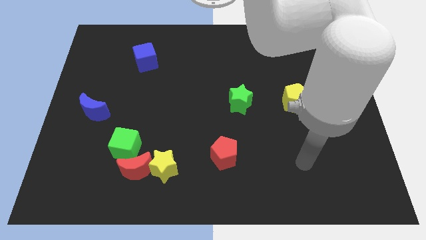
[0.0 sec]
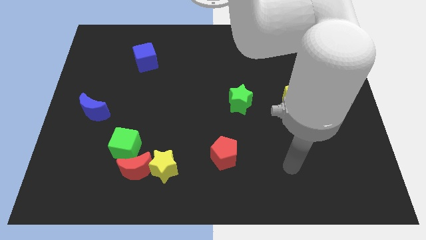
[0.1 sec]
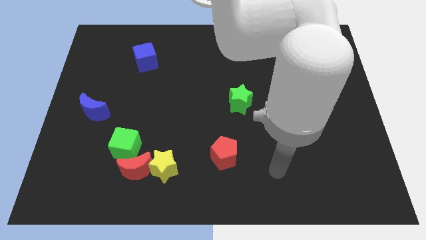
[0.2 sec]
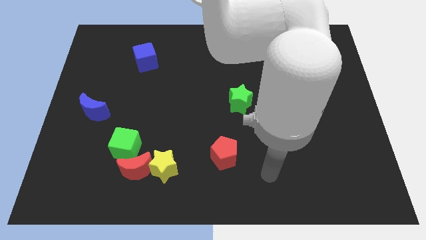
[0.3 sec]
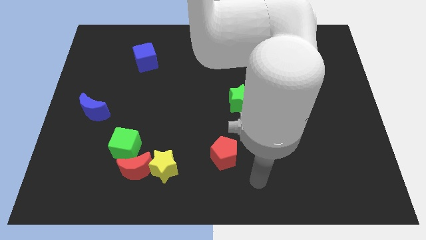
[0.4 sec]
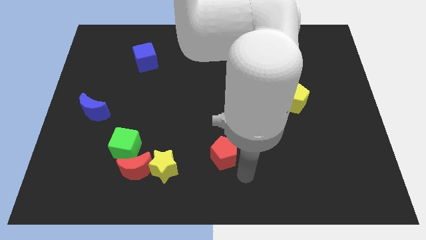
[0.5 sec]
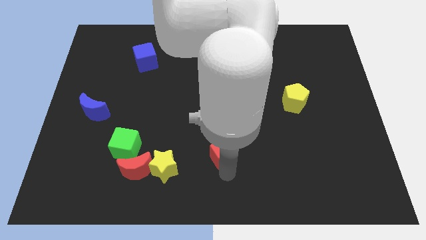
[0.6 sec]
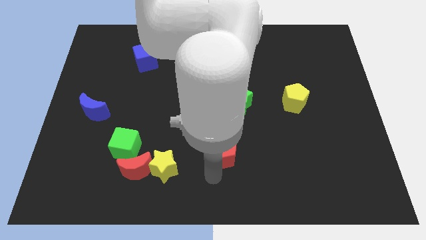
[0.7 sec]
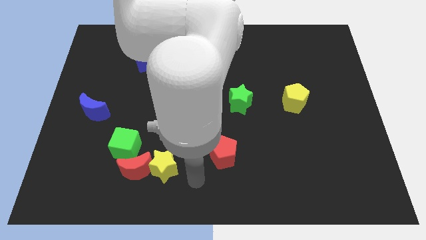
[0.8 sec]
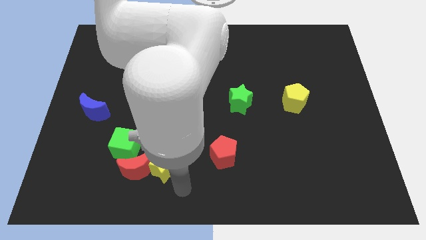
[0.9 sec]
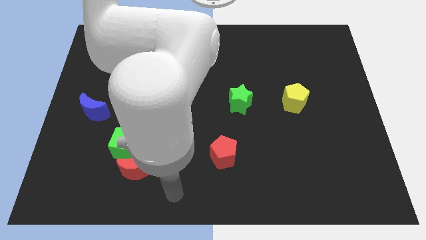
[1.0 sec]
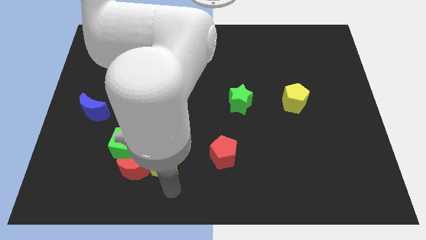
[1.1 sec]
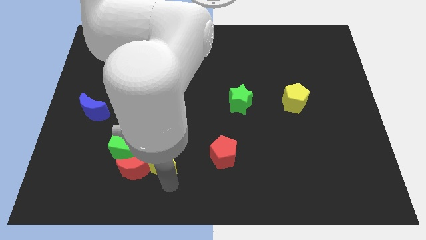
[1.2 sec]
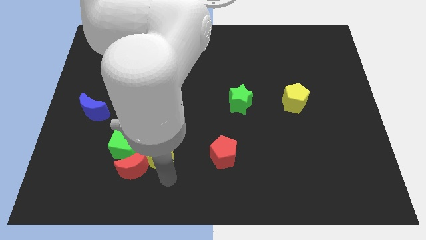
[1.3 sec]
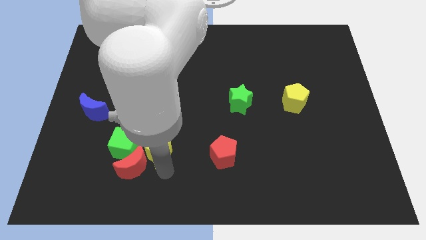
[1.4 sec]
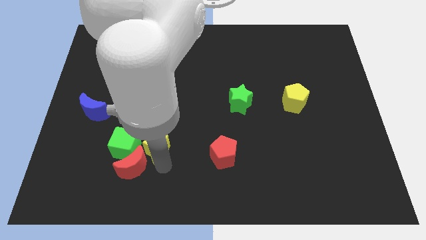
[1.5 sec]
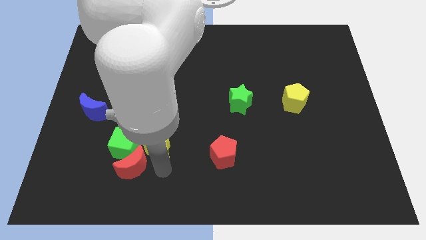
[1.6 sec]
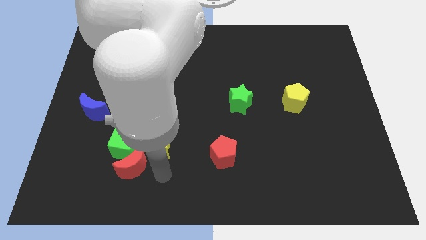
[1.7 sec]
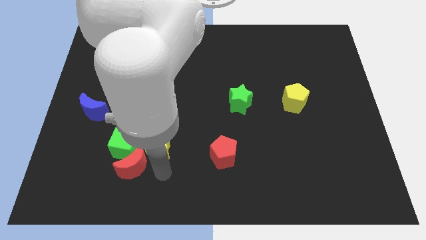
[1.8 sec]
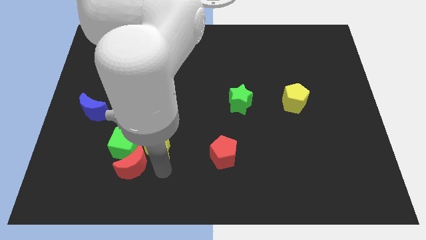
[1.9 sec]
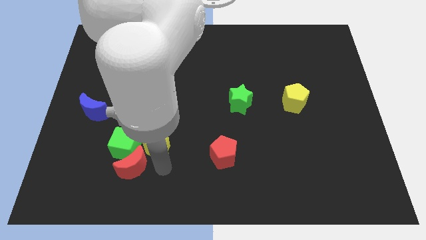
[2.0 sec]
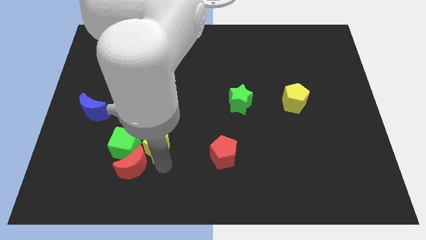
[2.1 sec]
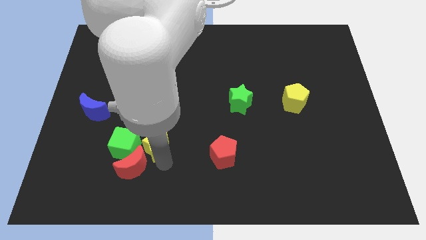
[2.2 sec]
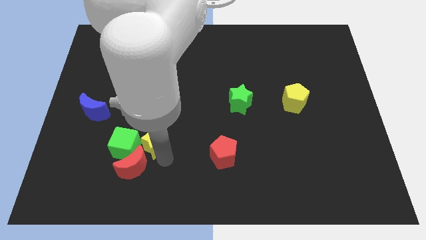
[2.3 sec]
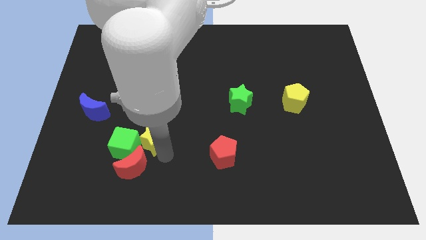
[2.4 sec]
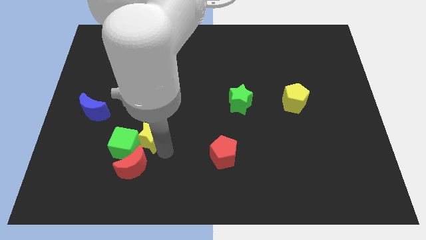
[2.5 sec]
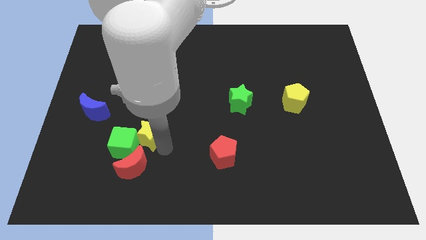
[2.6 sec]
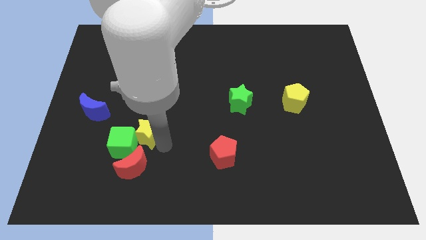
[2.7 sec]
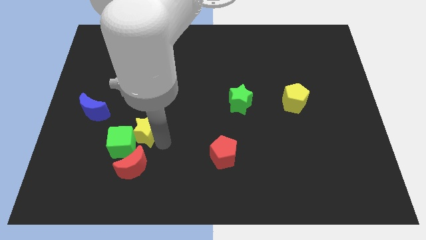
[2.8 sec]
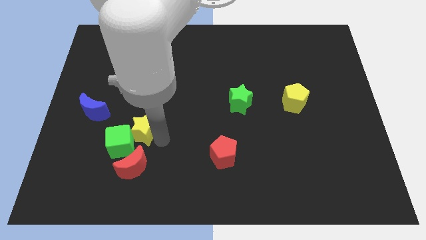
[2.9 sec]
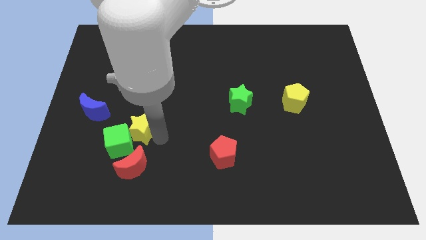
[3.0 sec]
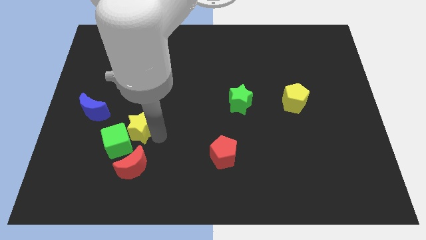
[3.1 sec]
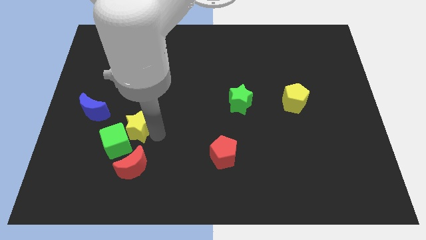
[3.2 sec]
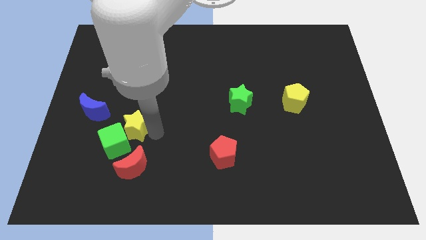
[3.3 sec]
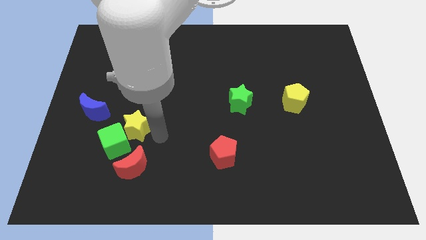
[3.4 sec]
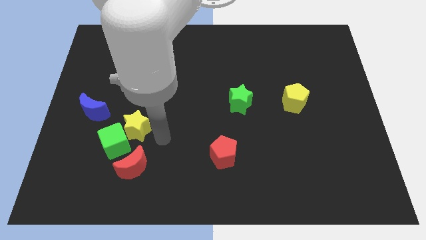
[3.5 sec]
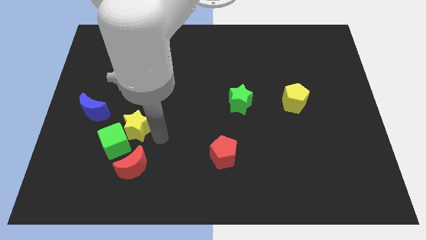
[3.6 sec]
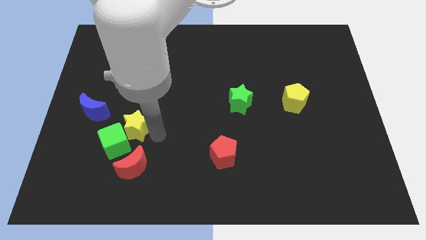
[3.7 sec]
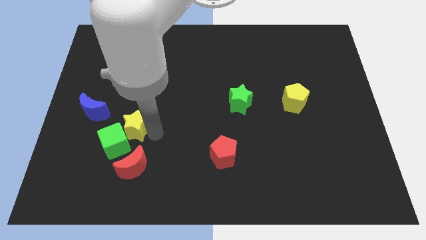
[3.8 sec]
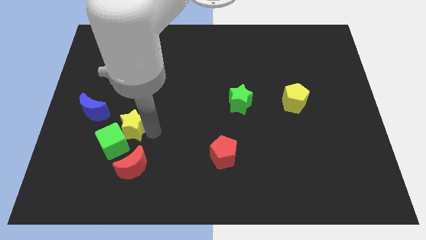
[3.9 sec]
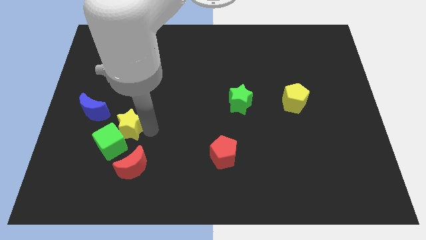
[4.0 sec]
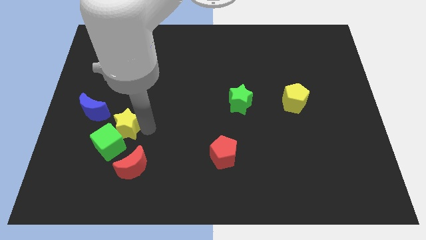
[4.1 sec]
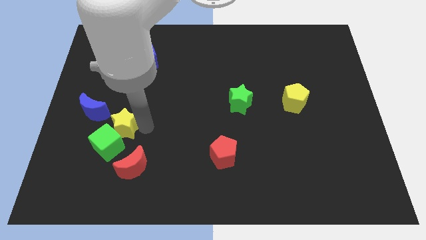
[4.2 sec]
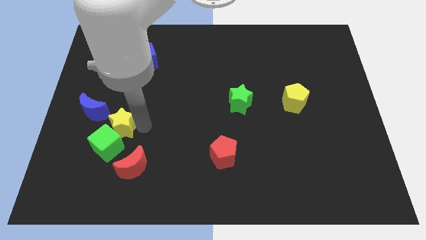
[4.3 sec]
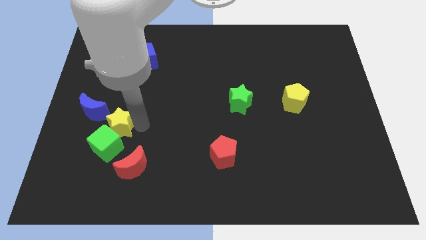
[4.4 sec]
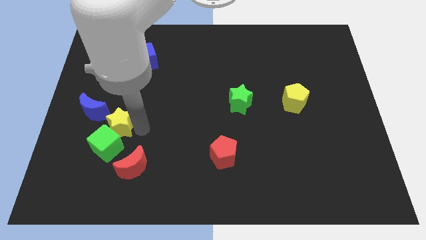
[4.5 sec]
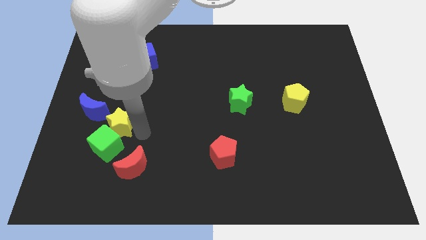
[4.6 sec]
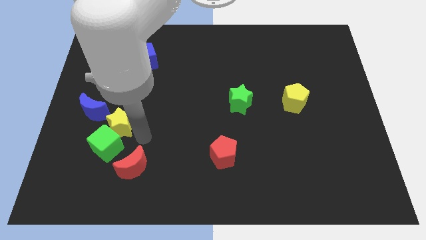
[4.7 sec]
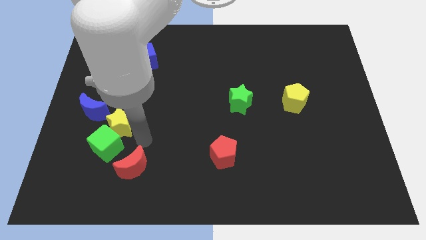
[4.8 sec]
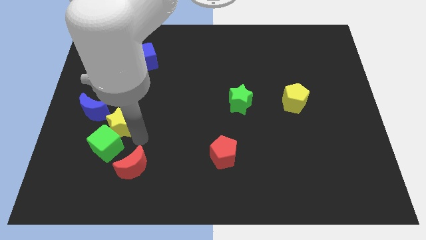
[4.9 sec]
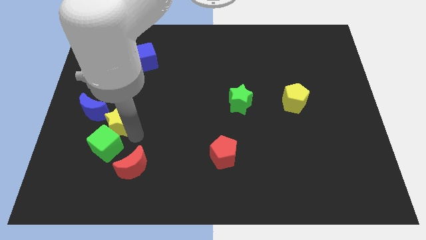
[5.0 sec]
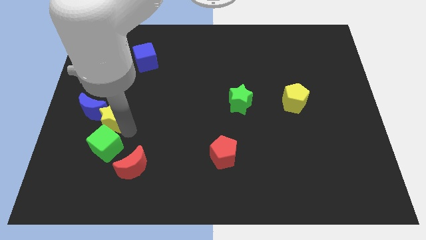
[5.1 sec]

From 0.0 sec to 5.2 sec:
push the yellow star towards the blue moon

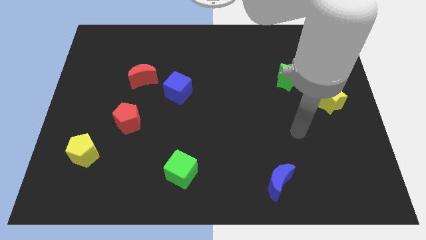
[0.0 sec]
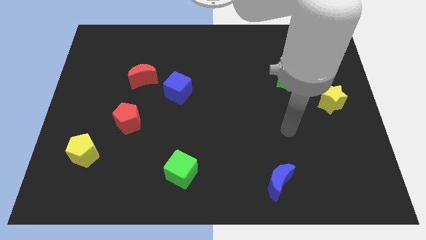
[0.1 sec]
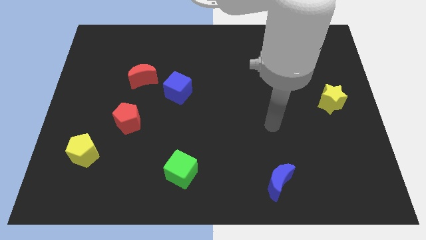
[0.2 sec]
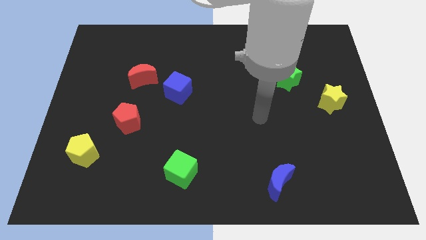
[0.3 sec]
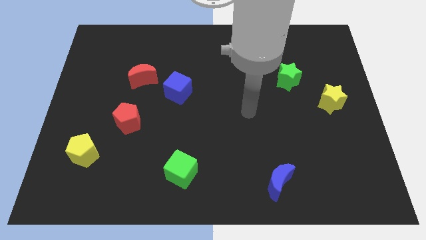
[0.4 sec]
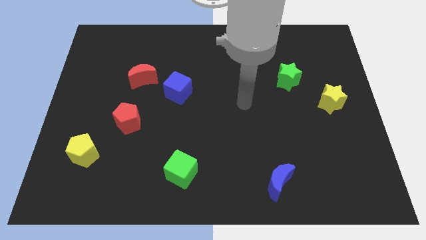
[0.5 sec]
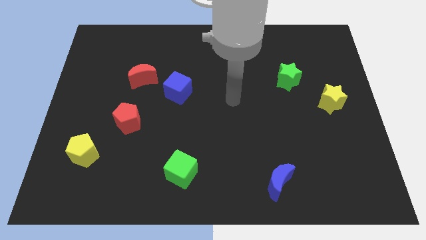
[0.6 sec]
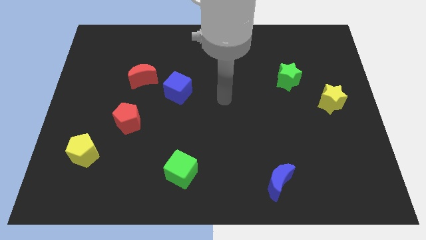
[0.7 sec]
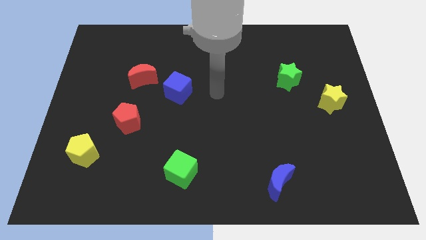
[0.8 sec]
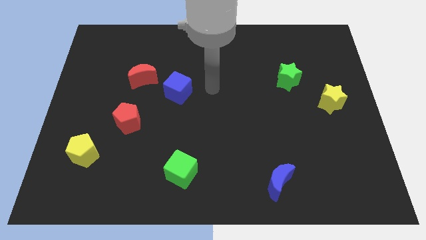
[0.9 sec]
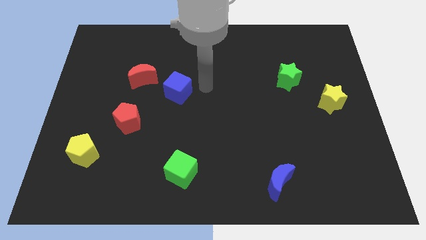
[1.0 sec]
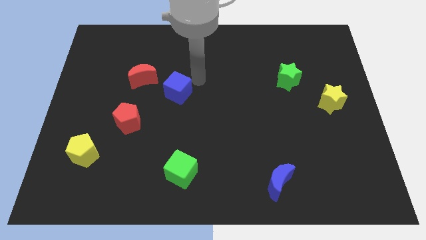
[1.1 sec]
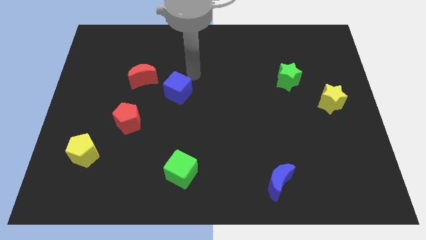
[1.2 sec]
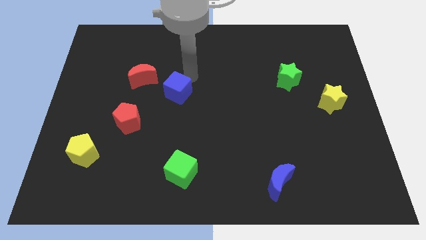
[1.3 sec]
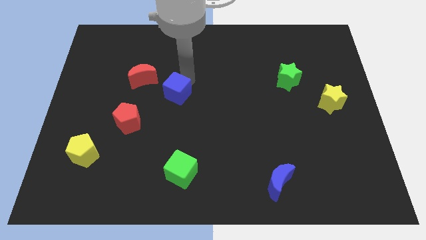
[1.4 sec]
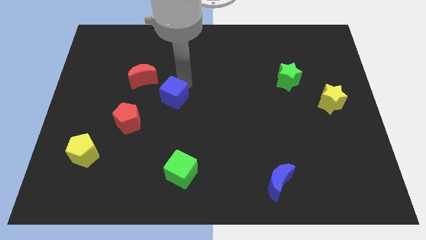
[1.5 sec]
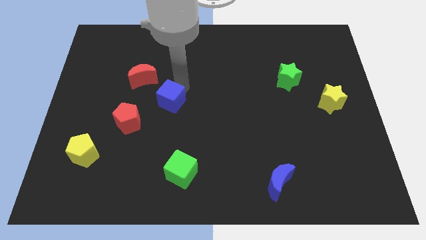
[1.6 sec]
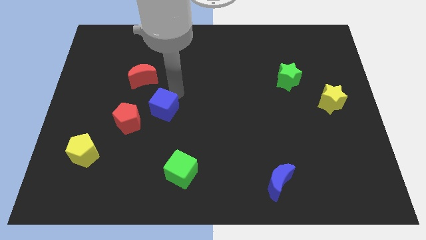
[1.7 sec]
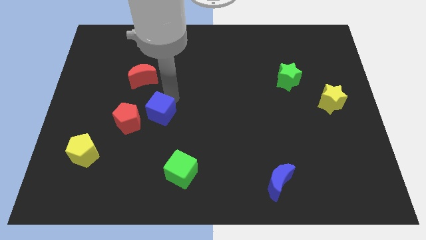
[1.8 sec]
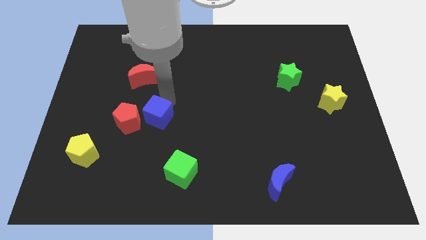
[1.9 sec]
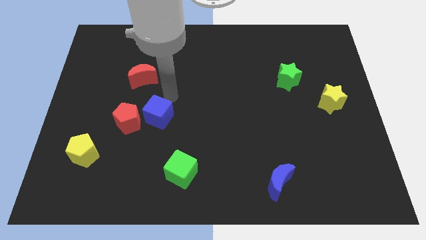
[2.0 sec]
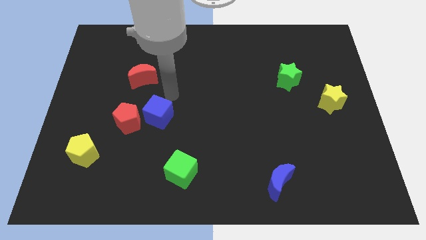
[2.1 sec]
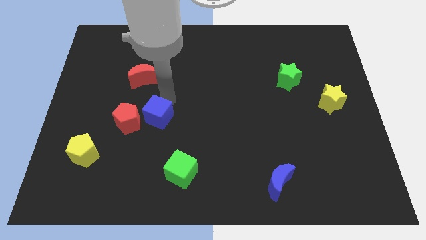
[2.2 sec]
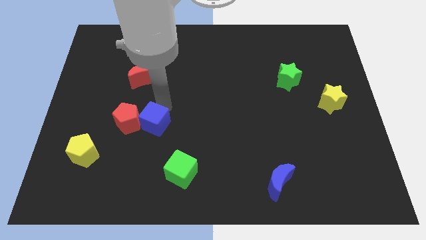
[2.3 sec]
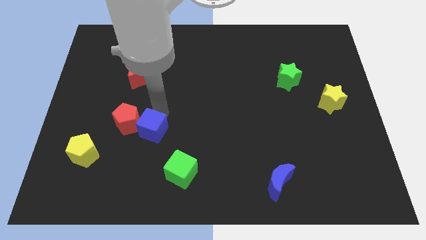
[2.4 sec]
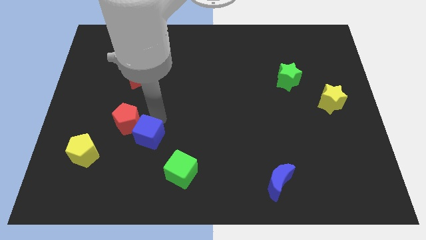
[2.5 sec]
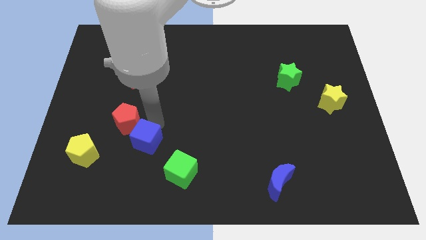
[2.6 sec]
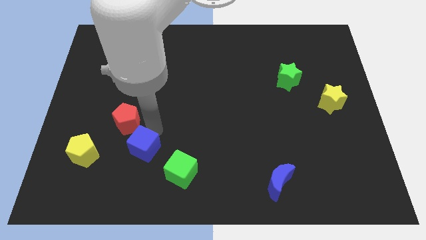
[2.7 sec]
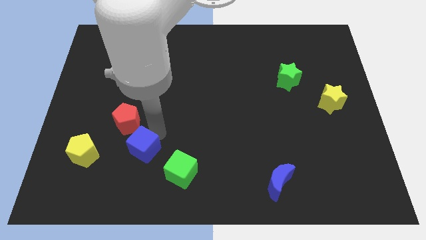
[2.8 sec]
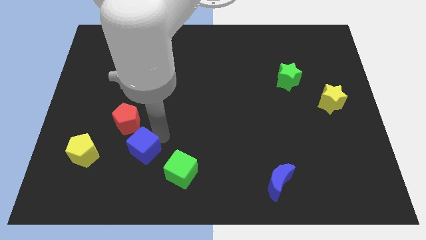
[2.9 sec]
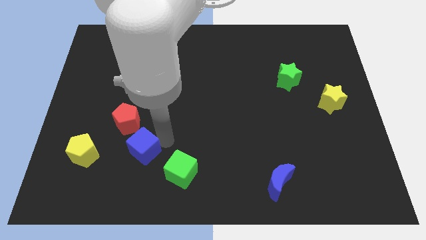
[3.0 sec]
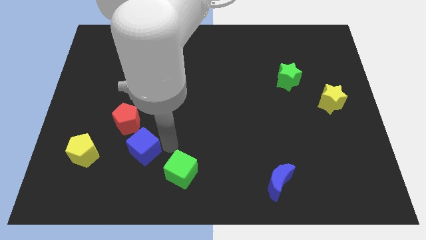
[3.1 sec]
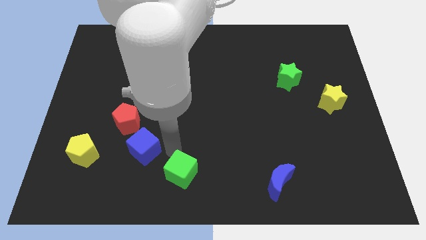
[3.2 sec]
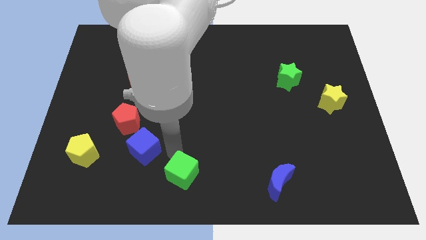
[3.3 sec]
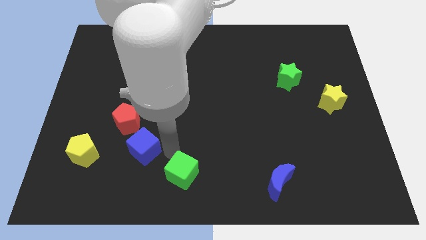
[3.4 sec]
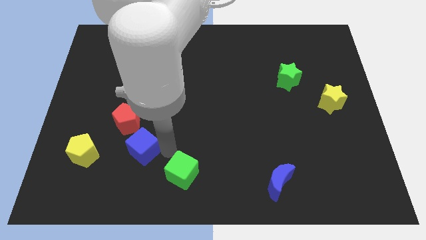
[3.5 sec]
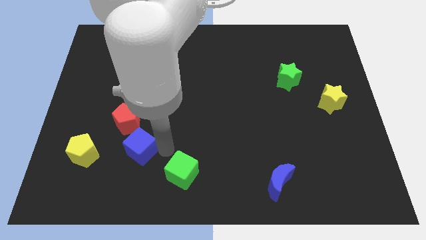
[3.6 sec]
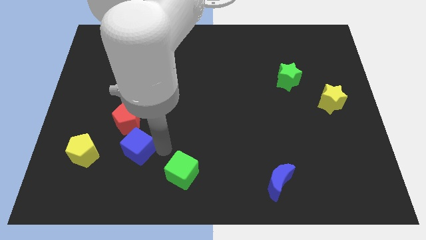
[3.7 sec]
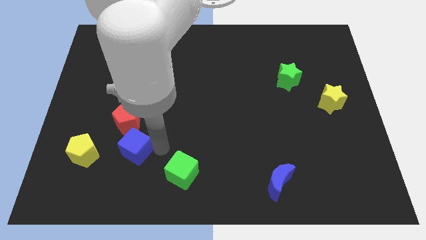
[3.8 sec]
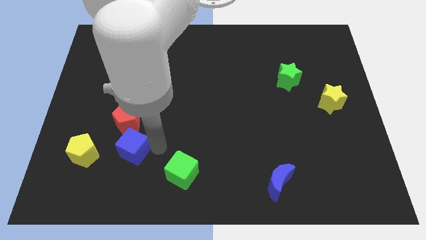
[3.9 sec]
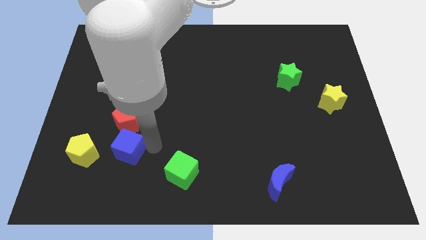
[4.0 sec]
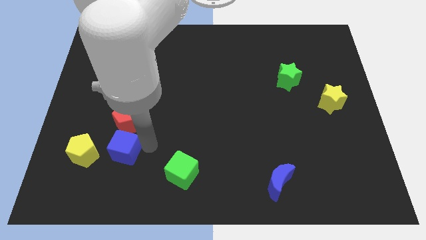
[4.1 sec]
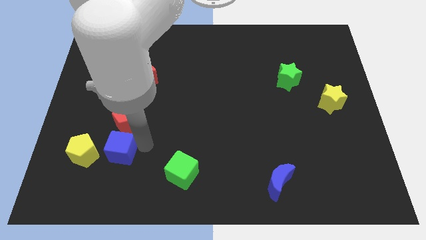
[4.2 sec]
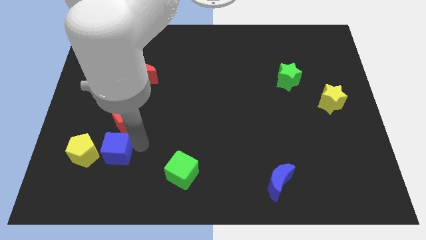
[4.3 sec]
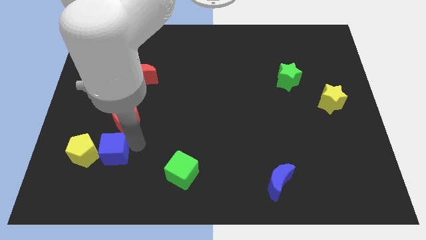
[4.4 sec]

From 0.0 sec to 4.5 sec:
put the blue cube next to the yellow pentagon
